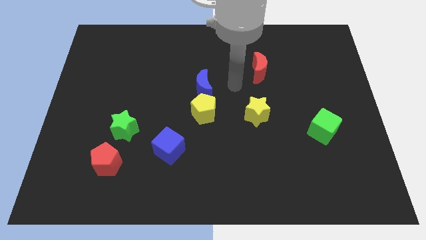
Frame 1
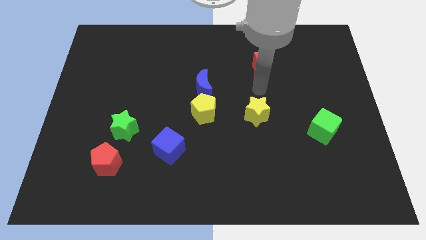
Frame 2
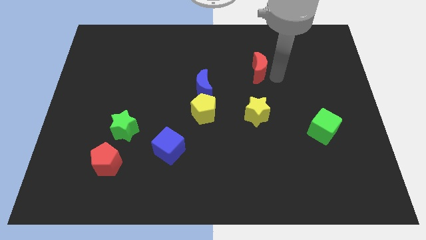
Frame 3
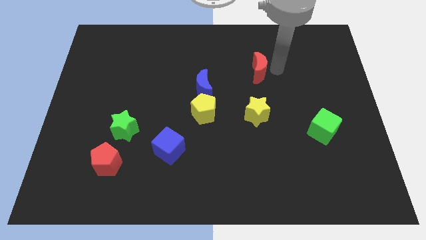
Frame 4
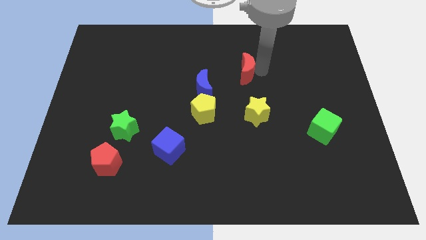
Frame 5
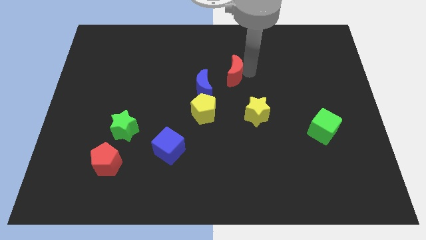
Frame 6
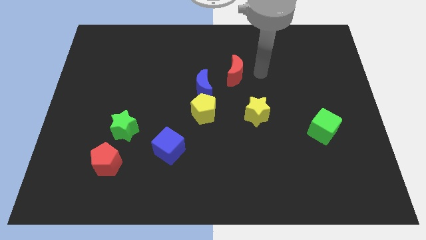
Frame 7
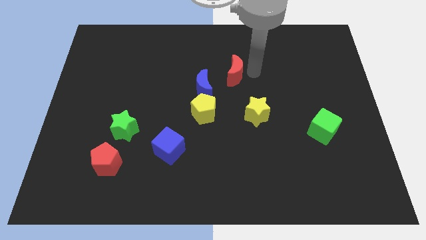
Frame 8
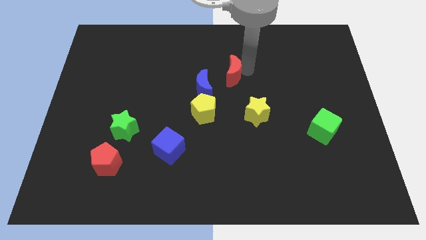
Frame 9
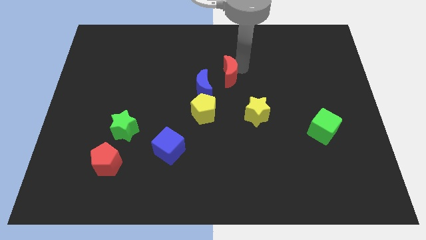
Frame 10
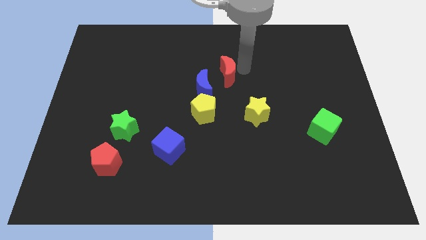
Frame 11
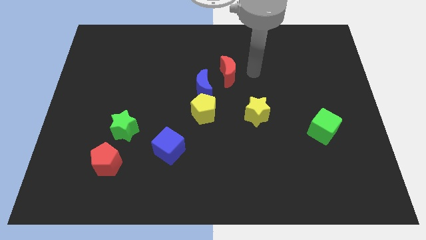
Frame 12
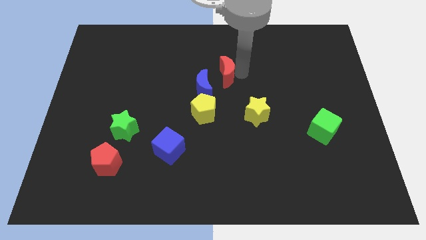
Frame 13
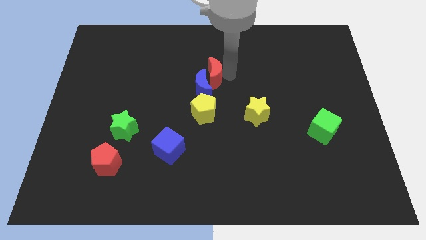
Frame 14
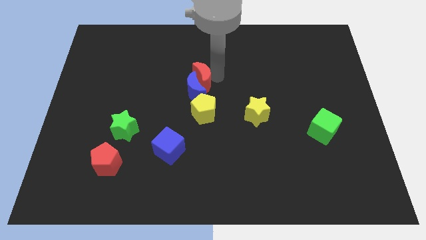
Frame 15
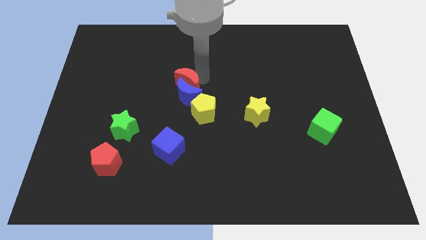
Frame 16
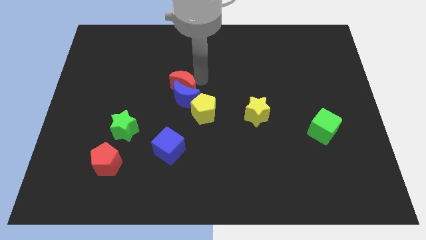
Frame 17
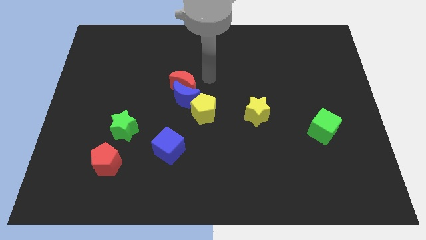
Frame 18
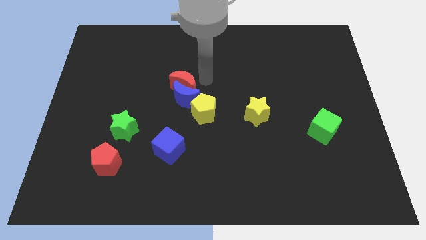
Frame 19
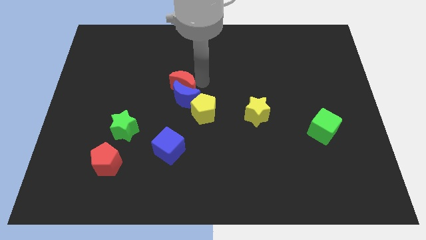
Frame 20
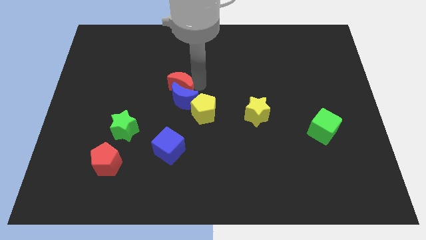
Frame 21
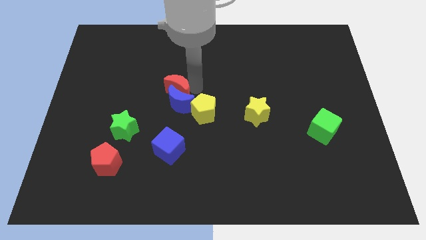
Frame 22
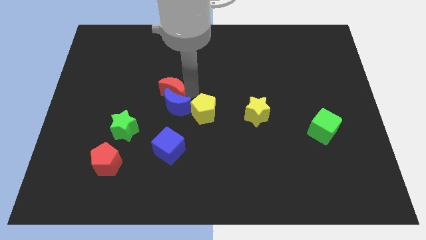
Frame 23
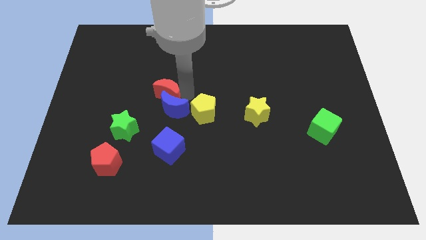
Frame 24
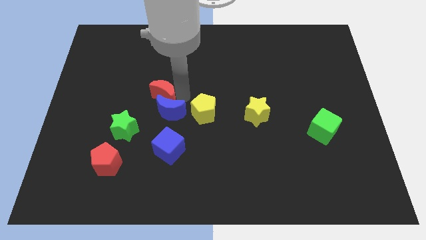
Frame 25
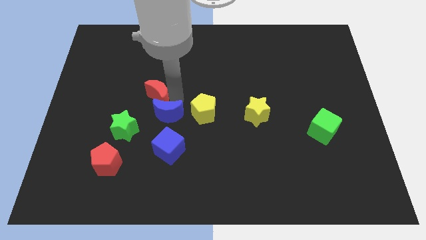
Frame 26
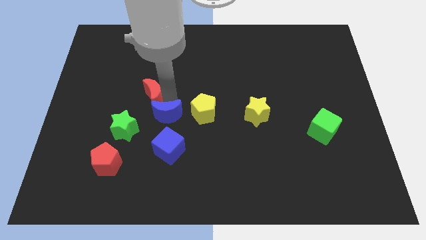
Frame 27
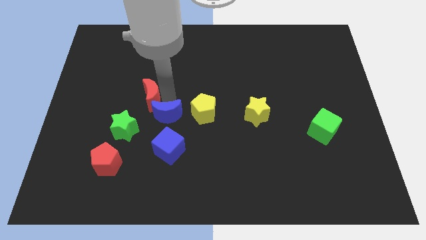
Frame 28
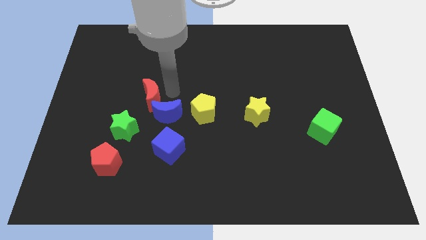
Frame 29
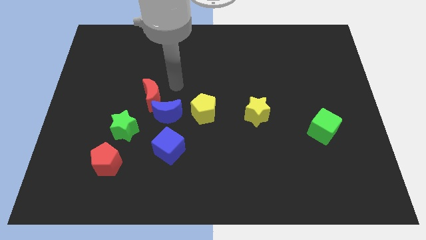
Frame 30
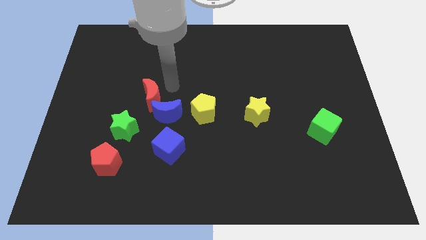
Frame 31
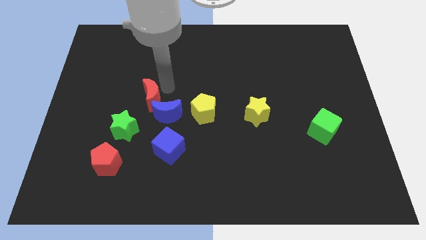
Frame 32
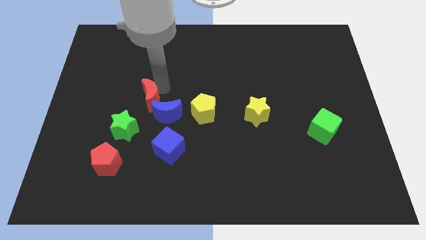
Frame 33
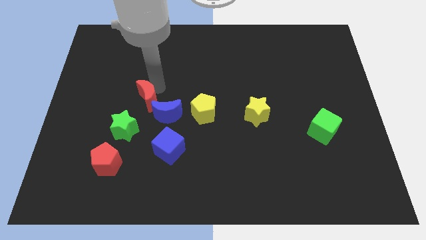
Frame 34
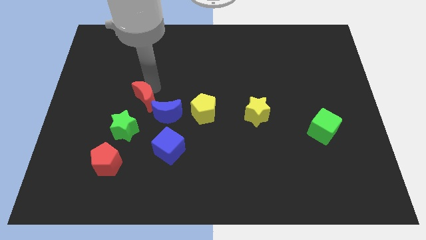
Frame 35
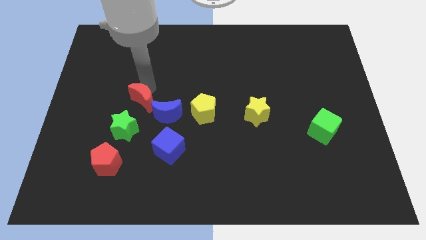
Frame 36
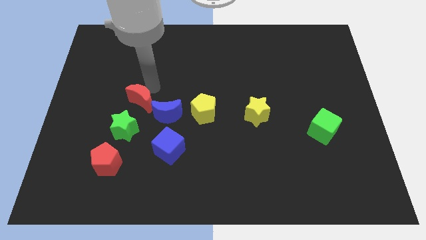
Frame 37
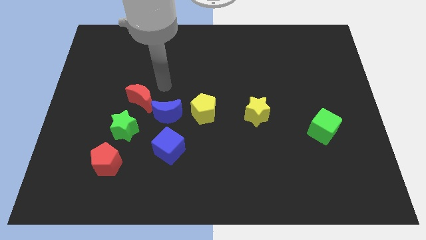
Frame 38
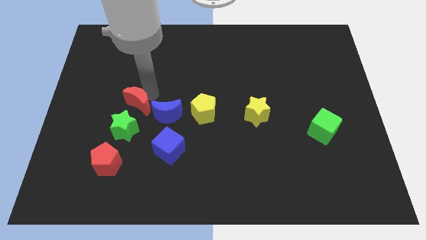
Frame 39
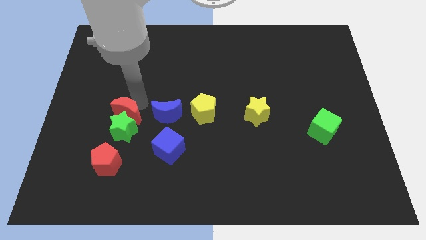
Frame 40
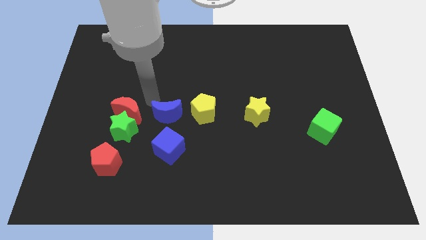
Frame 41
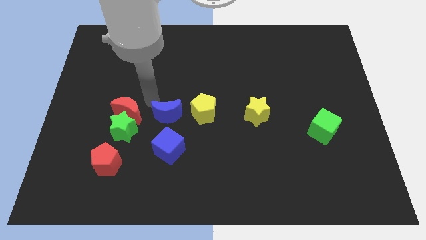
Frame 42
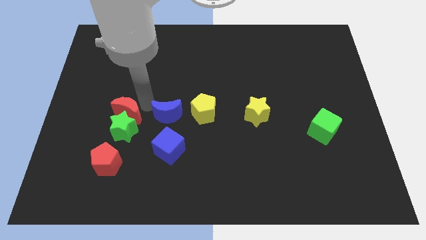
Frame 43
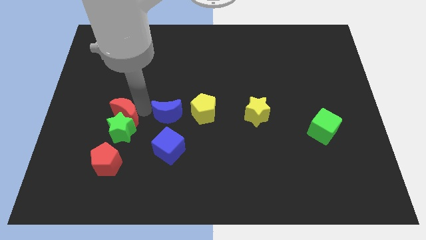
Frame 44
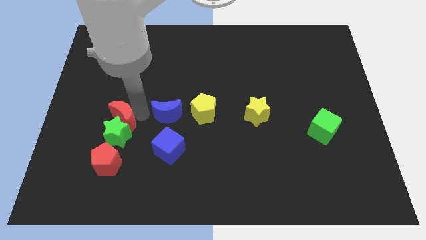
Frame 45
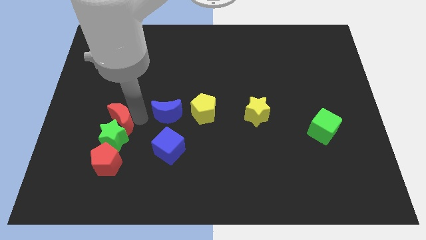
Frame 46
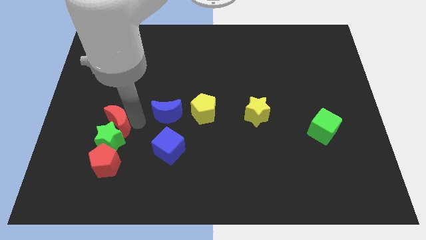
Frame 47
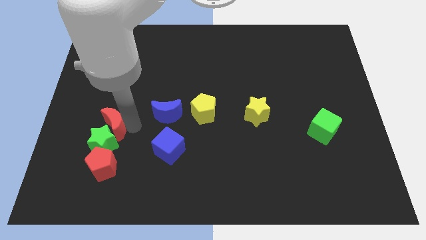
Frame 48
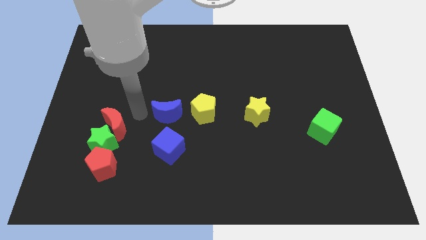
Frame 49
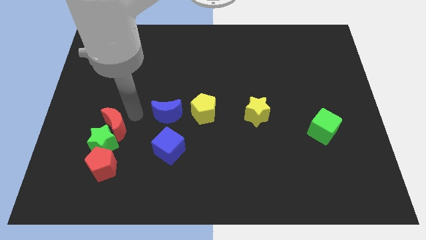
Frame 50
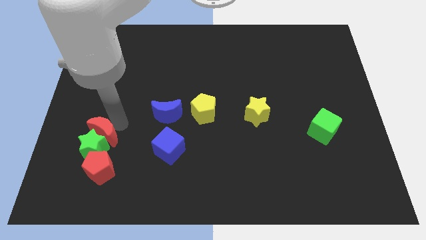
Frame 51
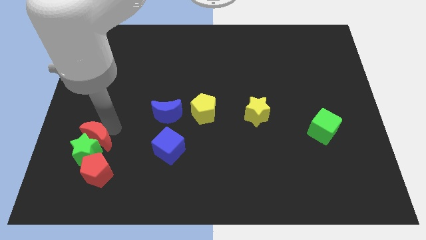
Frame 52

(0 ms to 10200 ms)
push the red moon diagonally up and to the left of the red pentagon

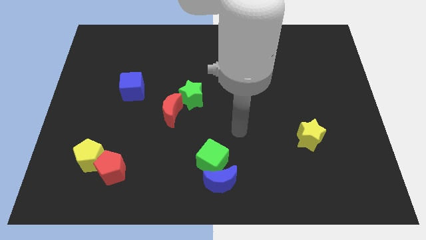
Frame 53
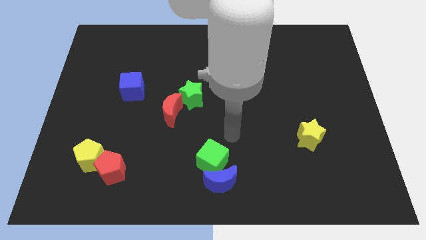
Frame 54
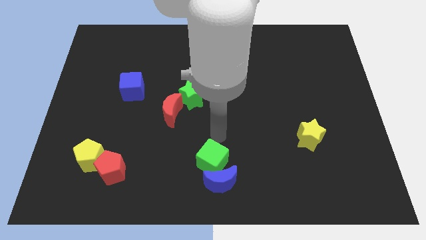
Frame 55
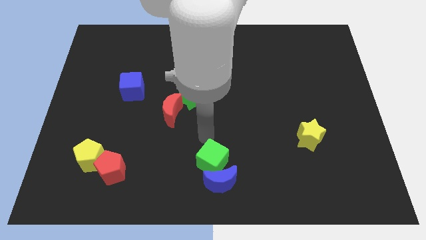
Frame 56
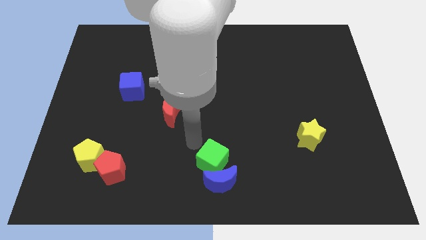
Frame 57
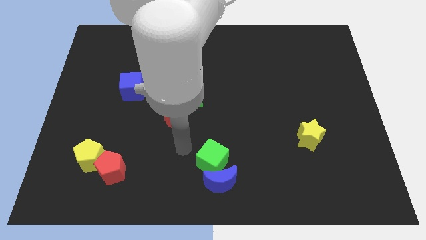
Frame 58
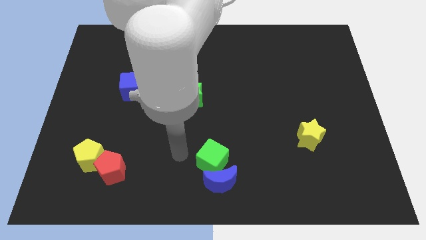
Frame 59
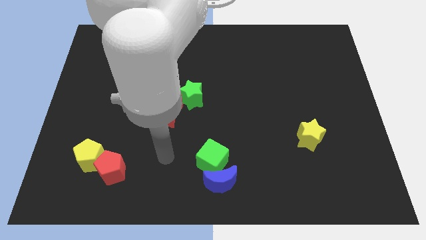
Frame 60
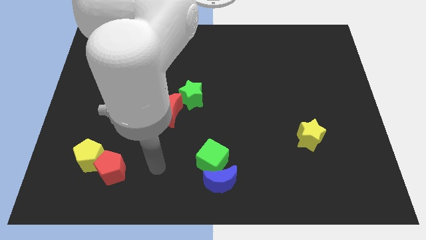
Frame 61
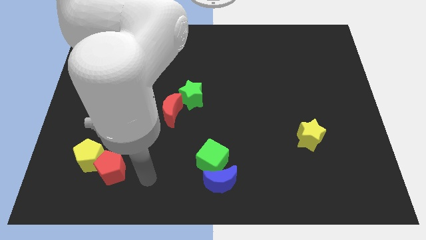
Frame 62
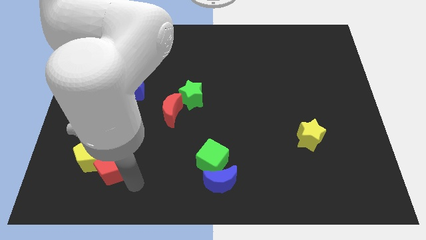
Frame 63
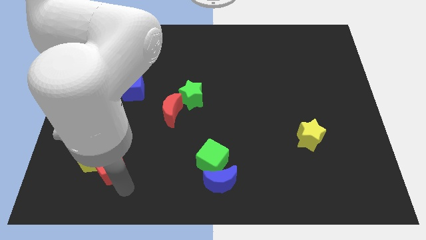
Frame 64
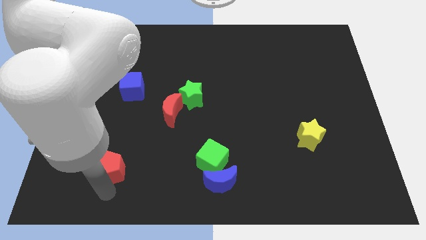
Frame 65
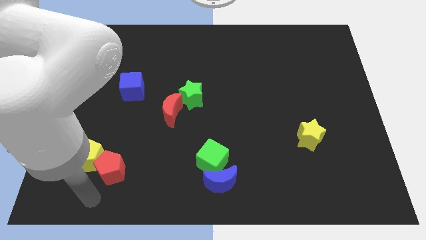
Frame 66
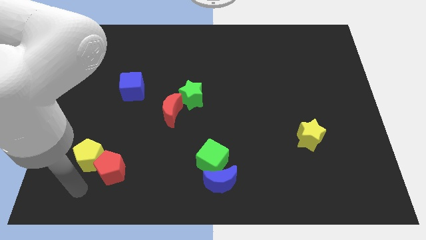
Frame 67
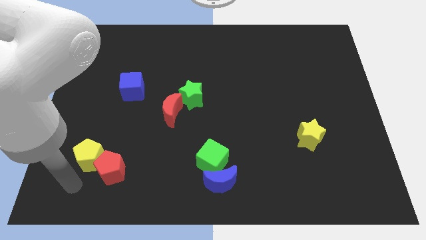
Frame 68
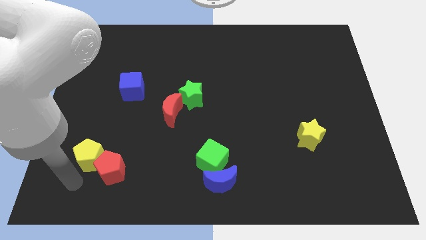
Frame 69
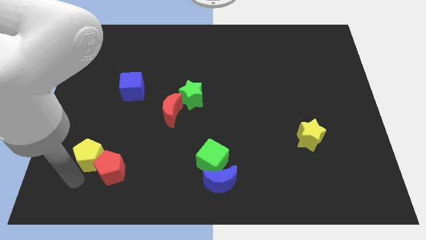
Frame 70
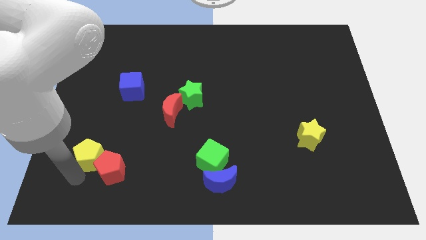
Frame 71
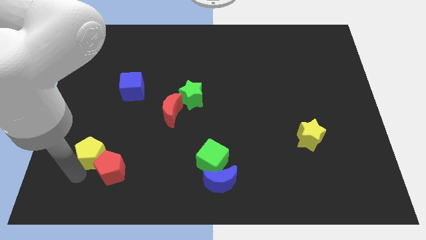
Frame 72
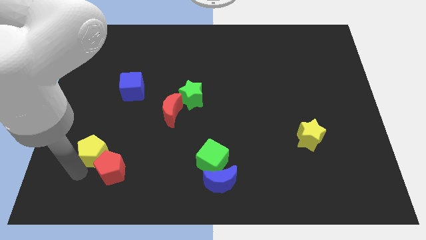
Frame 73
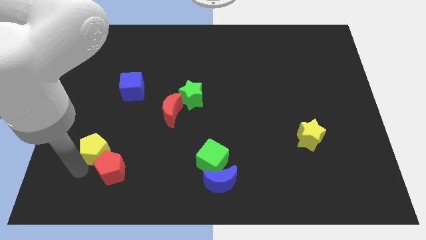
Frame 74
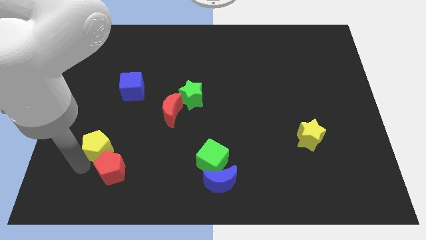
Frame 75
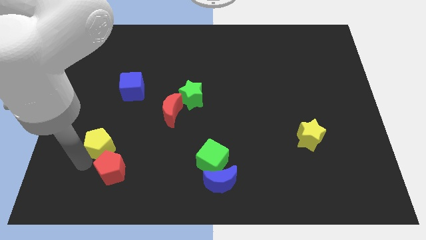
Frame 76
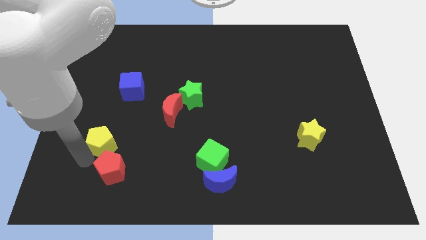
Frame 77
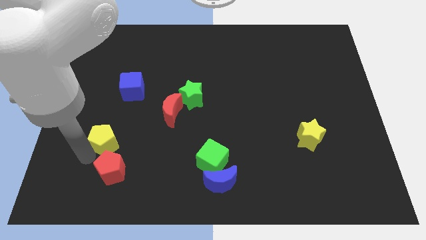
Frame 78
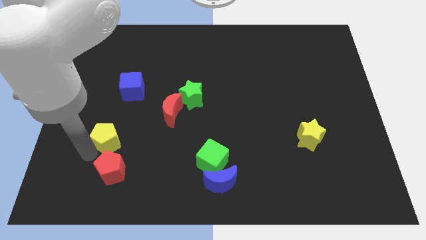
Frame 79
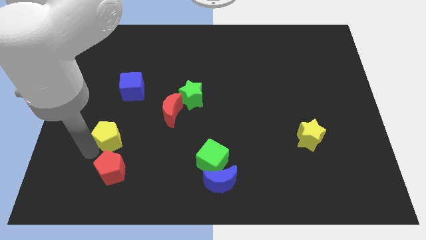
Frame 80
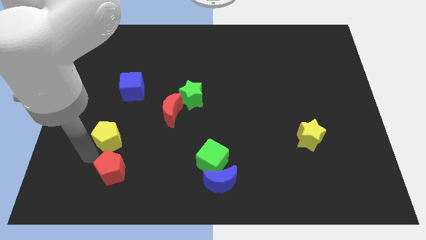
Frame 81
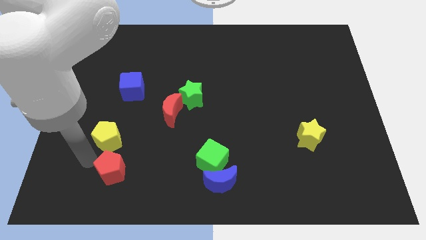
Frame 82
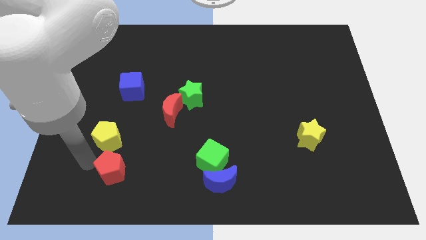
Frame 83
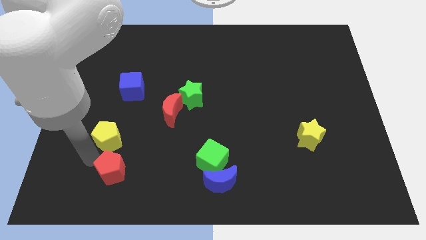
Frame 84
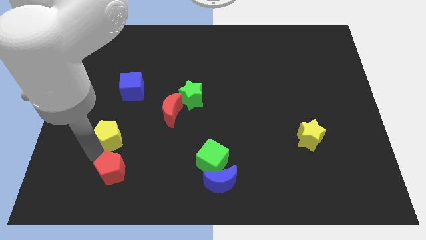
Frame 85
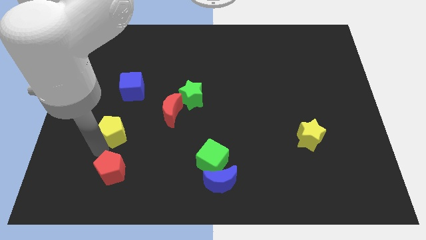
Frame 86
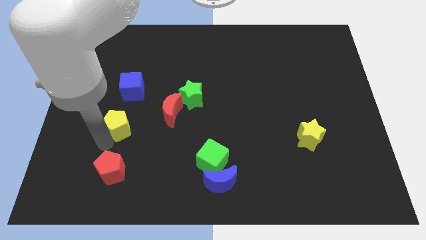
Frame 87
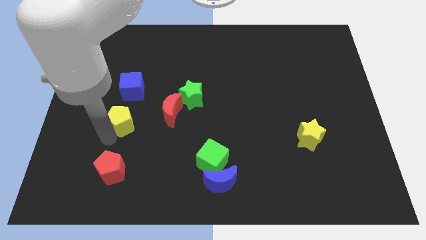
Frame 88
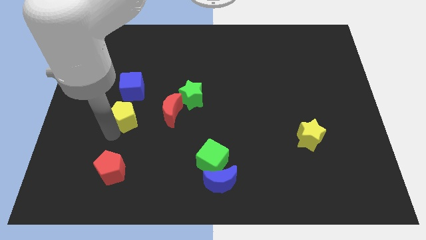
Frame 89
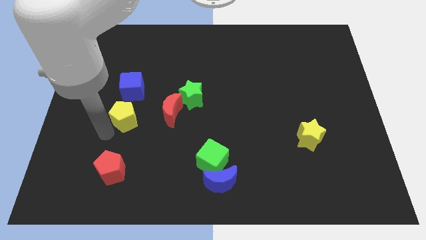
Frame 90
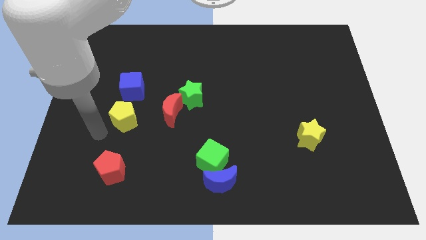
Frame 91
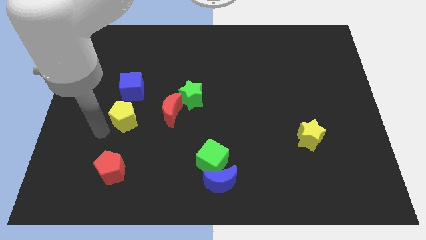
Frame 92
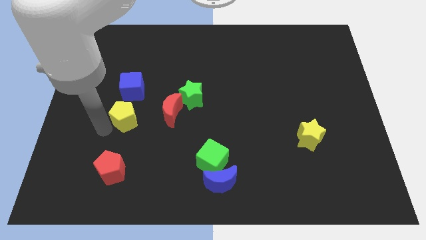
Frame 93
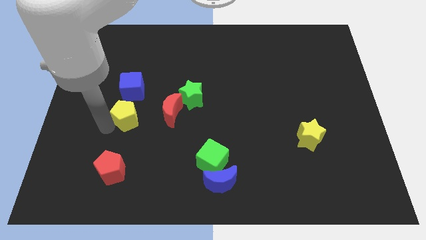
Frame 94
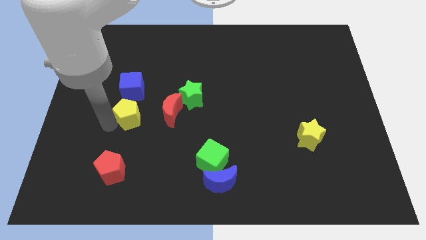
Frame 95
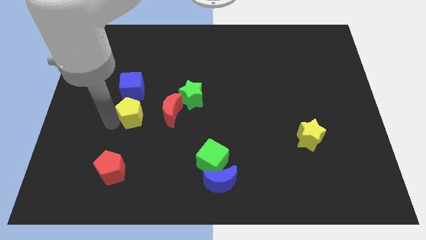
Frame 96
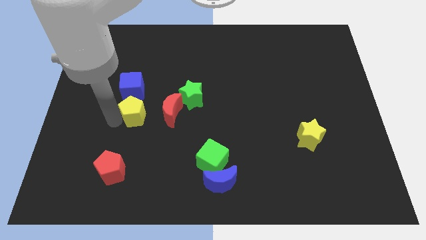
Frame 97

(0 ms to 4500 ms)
slide the yellow pentagon diagonally down and to the right of the blue cube
